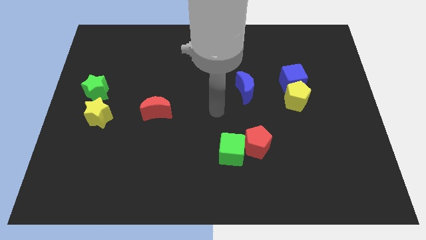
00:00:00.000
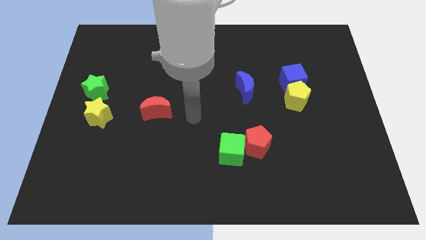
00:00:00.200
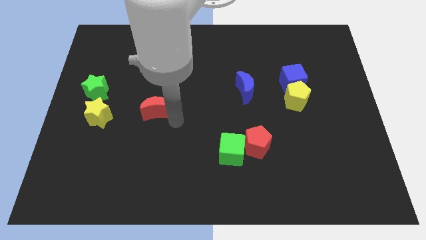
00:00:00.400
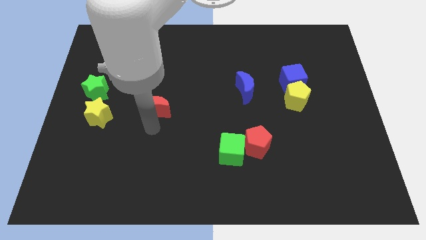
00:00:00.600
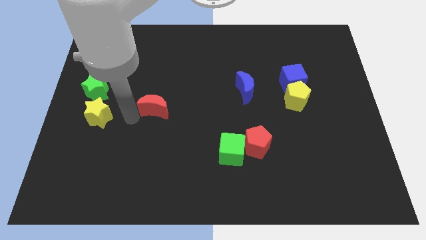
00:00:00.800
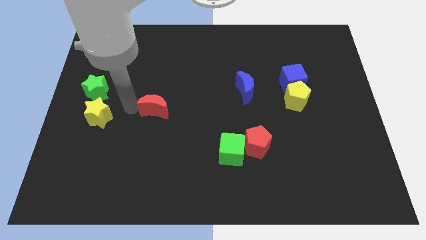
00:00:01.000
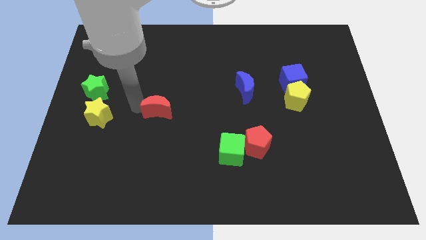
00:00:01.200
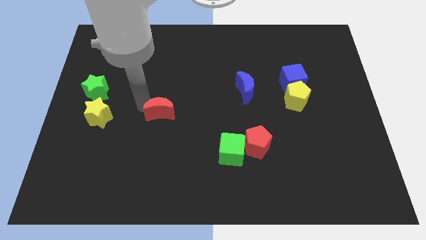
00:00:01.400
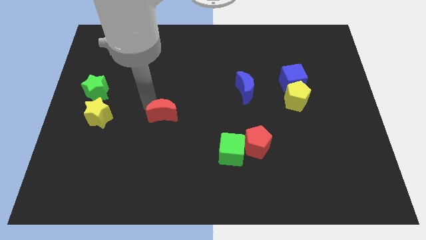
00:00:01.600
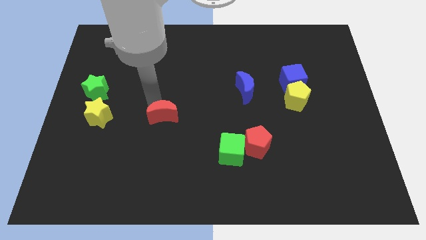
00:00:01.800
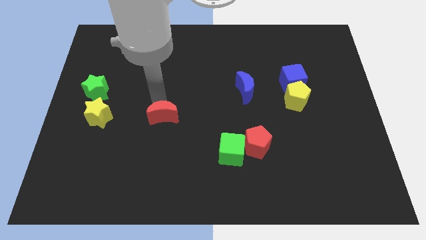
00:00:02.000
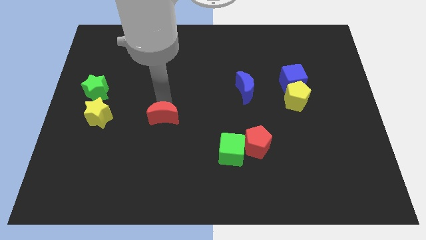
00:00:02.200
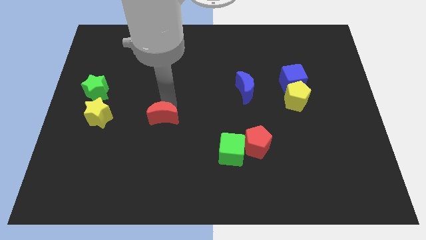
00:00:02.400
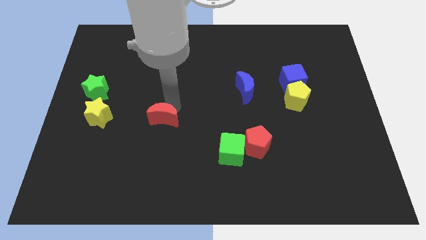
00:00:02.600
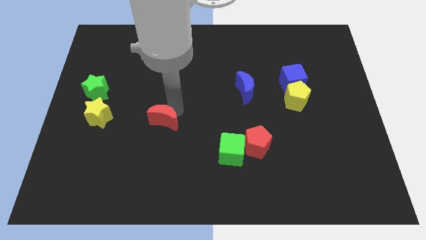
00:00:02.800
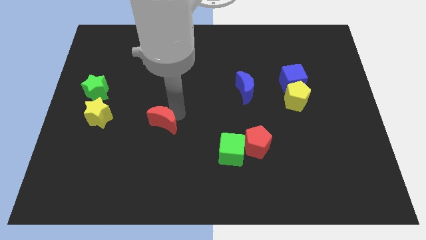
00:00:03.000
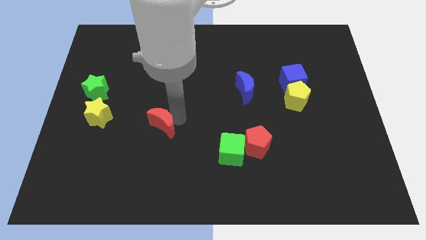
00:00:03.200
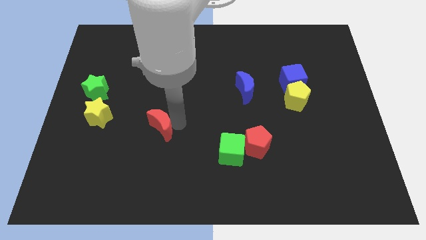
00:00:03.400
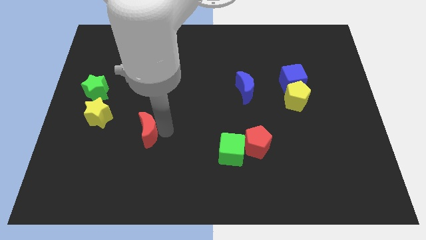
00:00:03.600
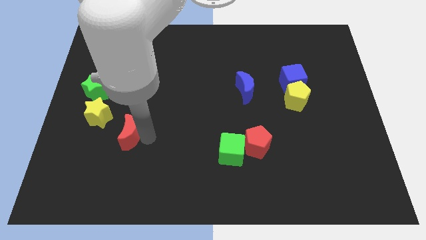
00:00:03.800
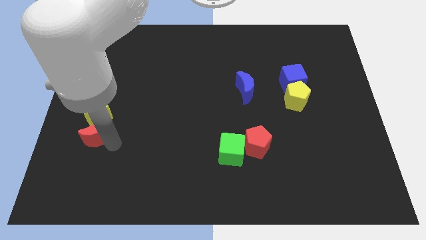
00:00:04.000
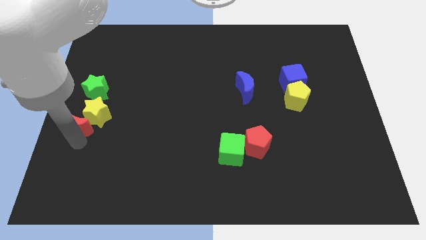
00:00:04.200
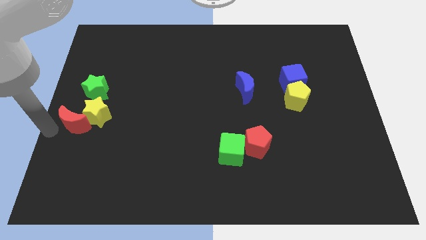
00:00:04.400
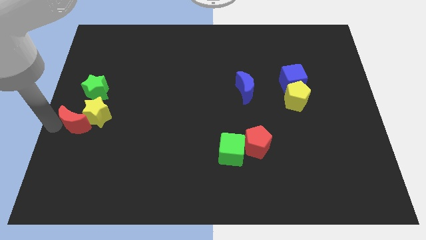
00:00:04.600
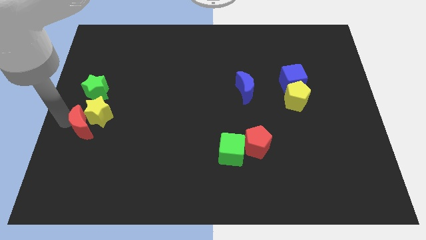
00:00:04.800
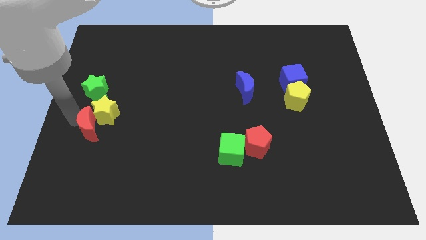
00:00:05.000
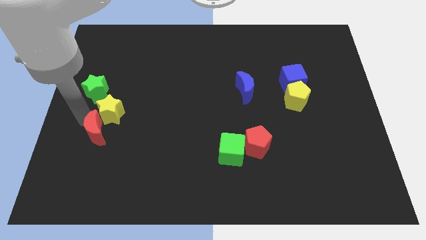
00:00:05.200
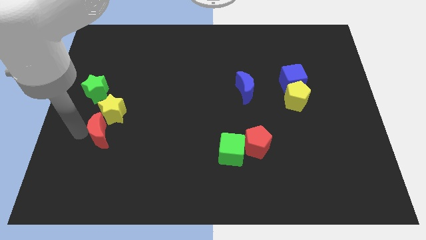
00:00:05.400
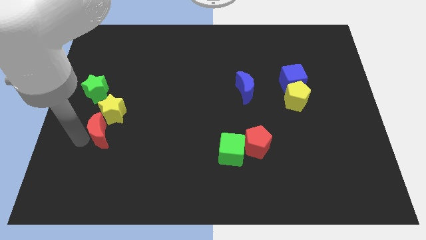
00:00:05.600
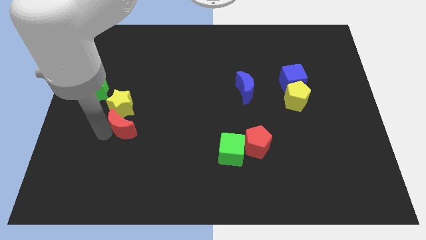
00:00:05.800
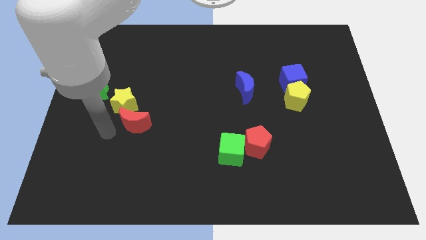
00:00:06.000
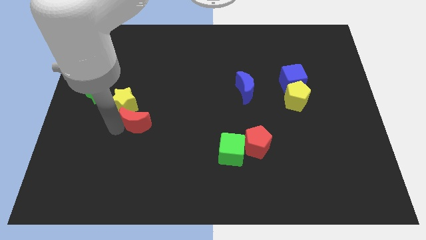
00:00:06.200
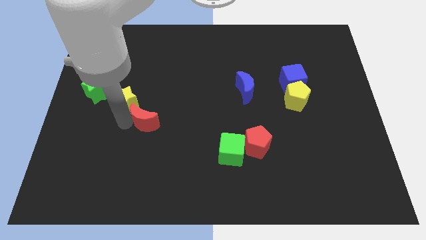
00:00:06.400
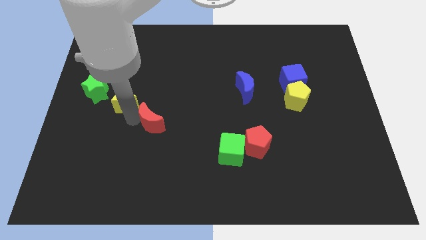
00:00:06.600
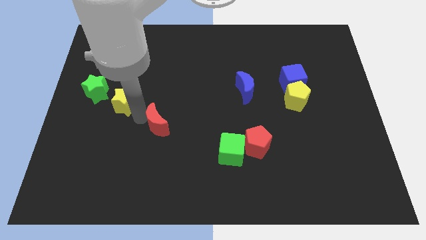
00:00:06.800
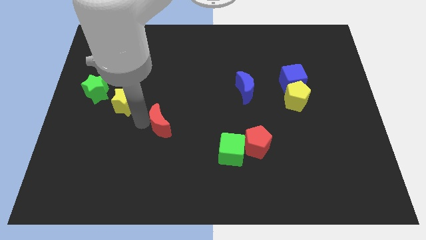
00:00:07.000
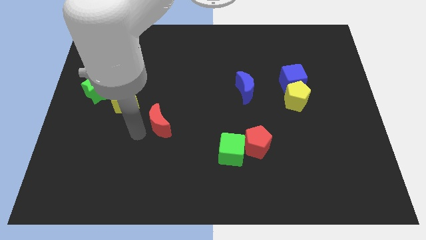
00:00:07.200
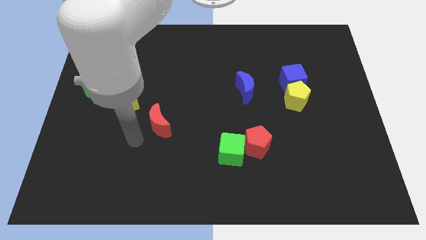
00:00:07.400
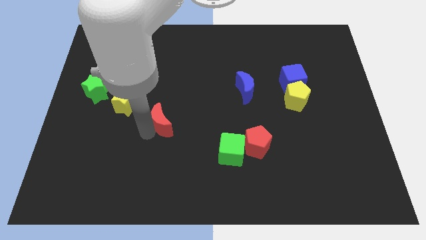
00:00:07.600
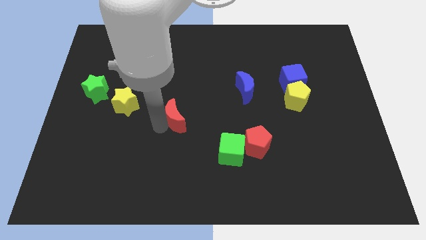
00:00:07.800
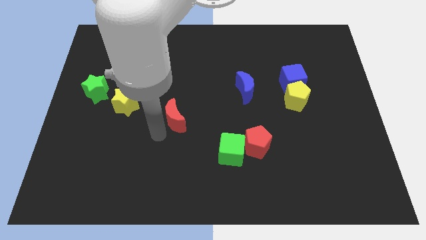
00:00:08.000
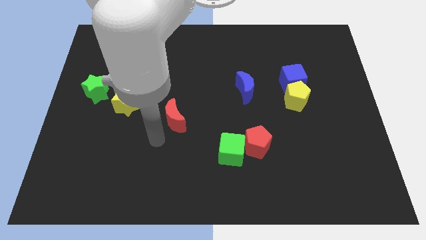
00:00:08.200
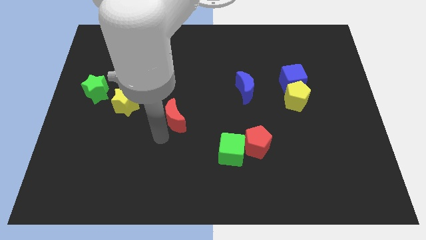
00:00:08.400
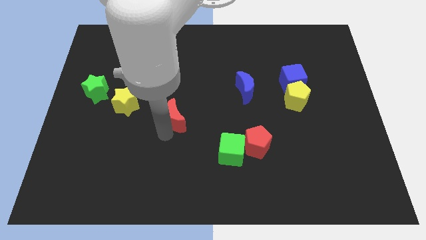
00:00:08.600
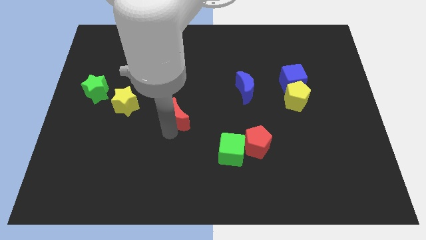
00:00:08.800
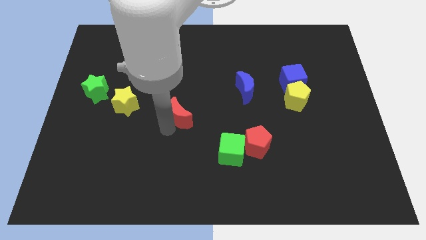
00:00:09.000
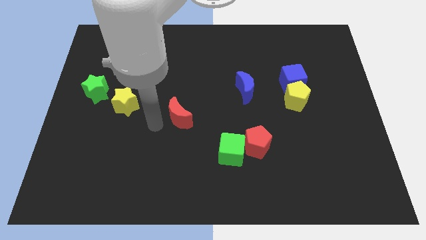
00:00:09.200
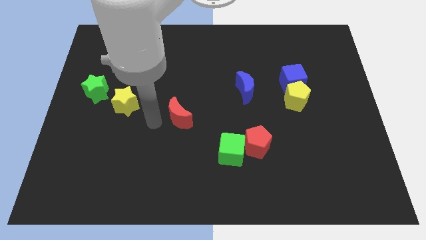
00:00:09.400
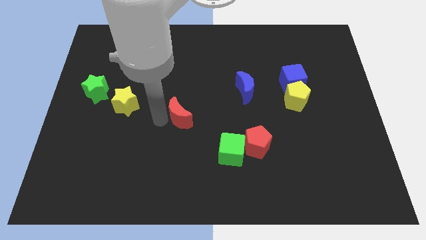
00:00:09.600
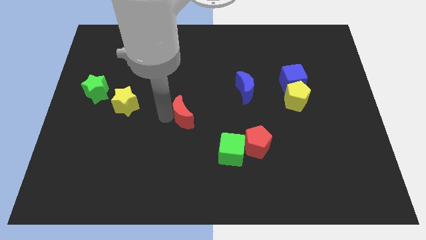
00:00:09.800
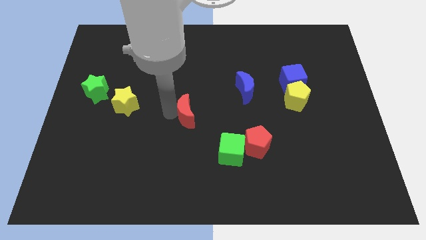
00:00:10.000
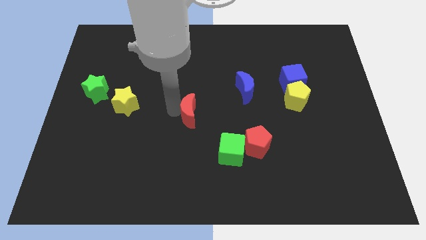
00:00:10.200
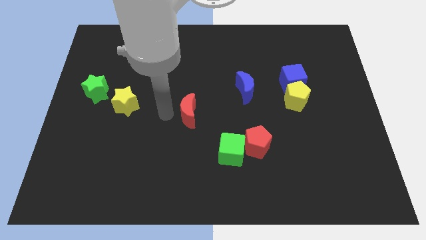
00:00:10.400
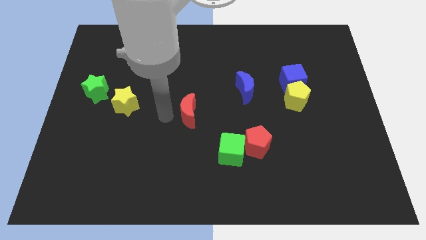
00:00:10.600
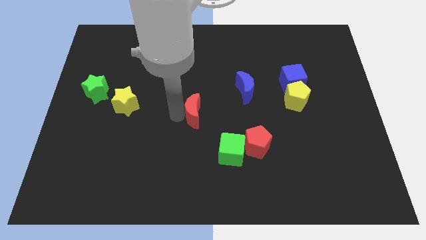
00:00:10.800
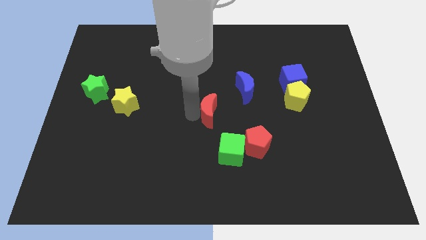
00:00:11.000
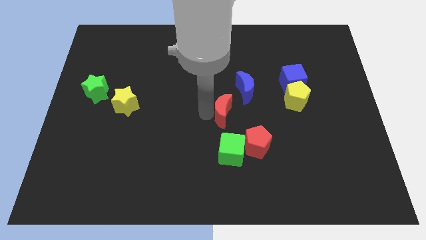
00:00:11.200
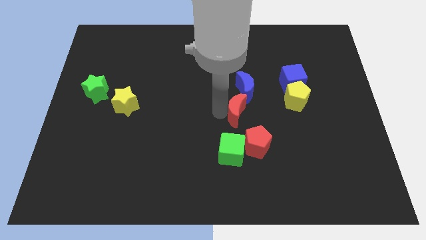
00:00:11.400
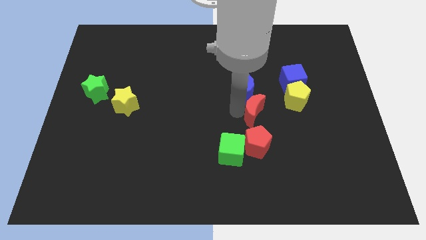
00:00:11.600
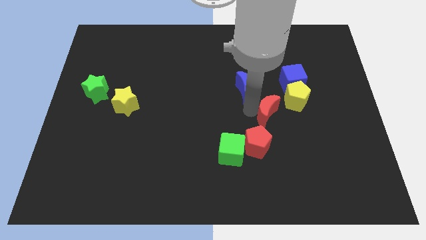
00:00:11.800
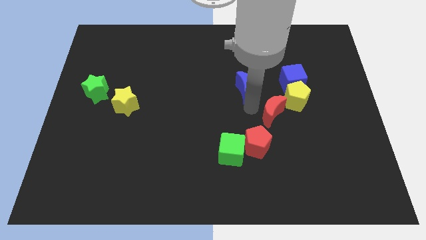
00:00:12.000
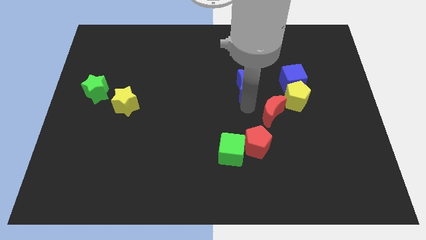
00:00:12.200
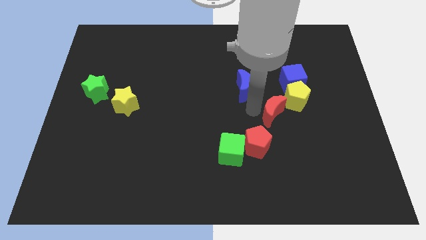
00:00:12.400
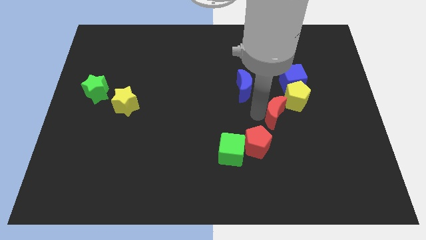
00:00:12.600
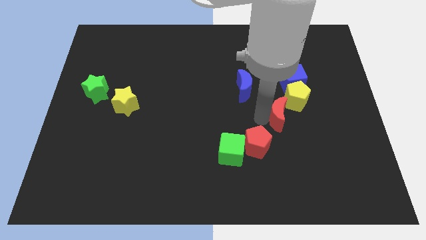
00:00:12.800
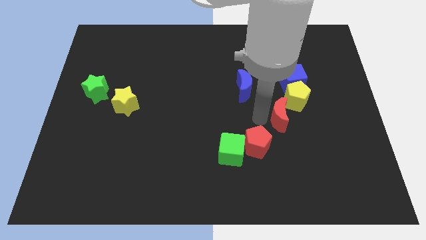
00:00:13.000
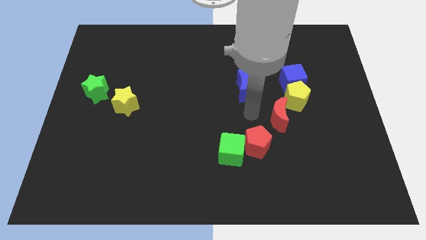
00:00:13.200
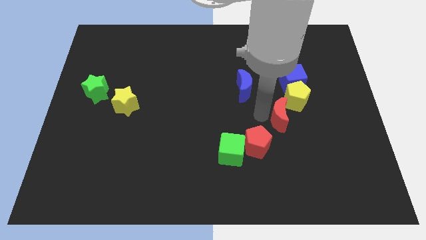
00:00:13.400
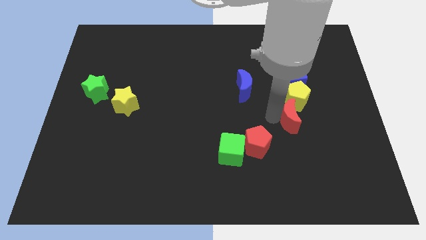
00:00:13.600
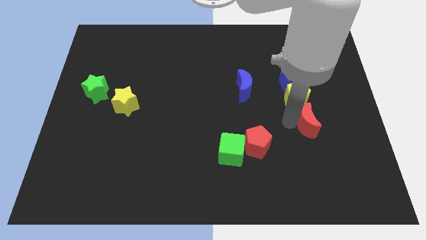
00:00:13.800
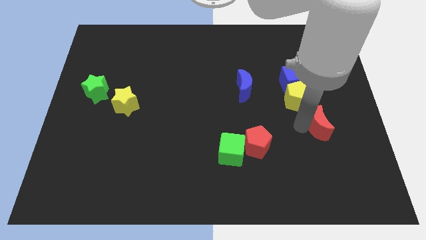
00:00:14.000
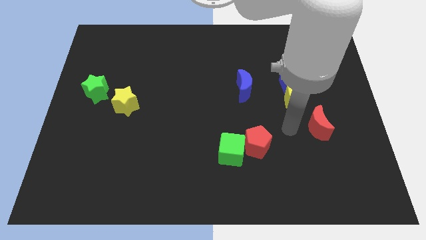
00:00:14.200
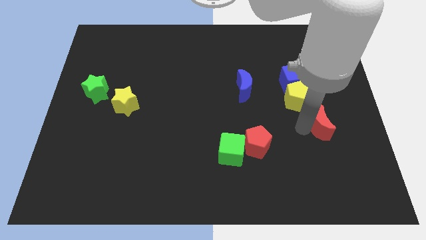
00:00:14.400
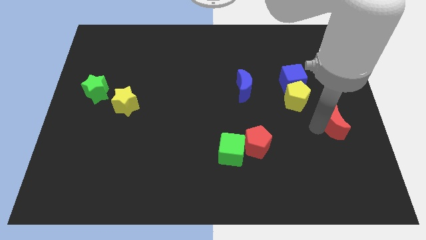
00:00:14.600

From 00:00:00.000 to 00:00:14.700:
move the red moon to the right side of the board
